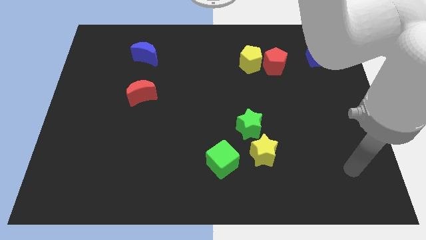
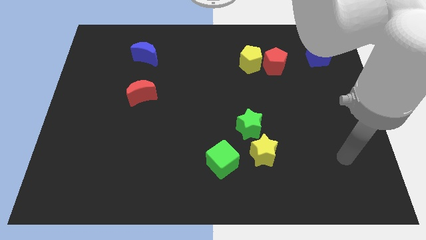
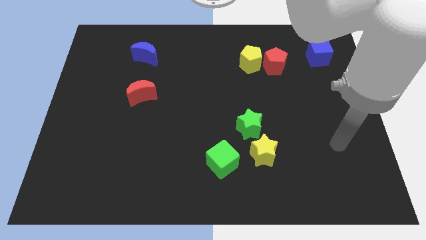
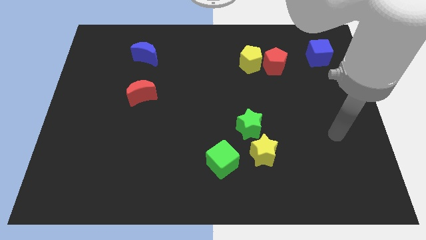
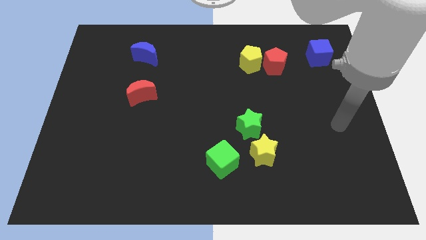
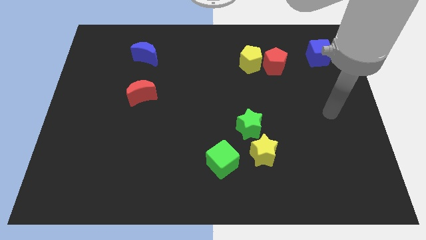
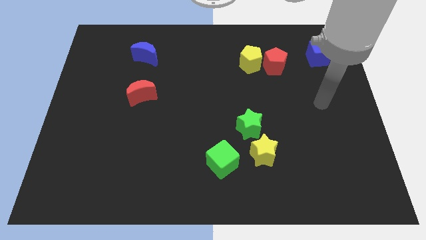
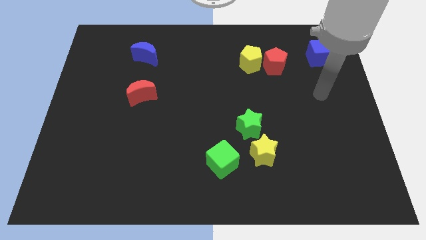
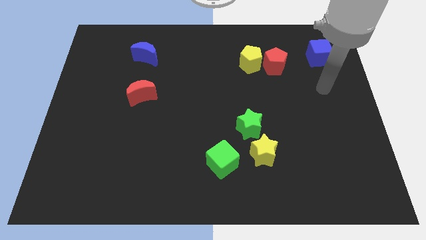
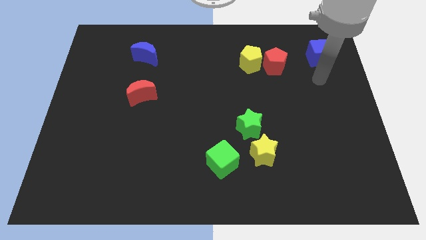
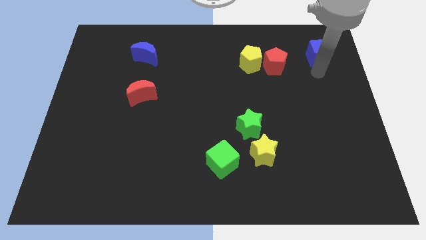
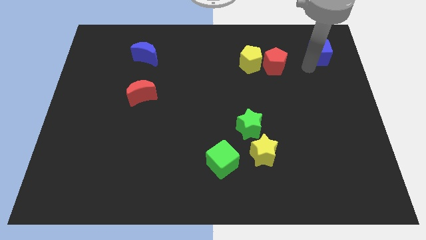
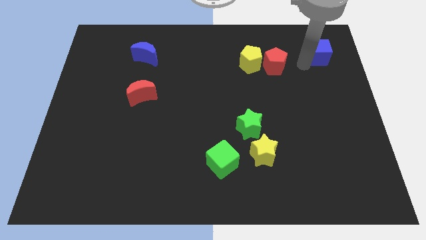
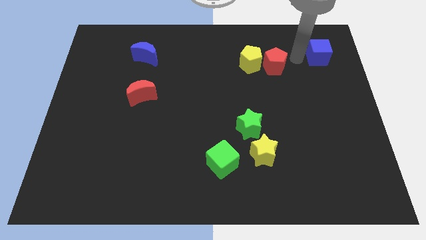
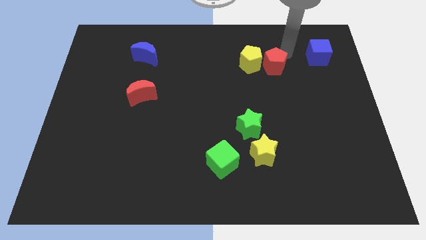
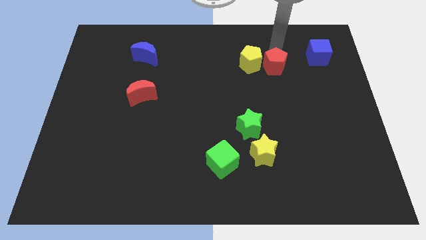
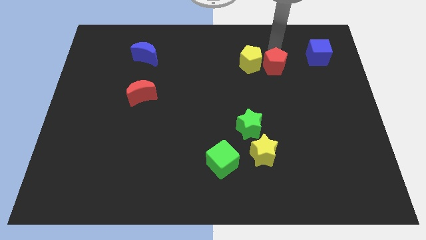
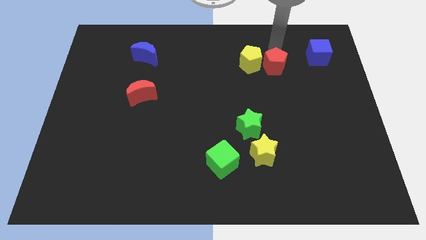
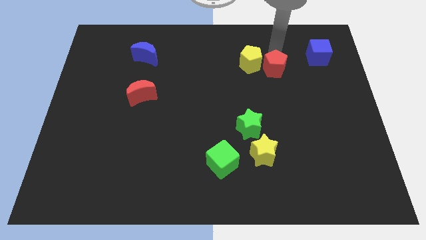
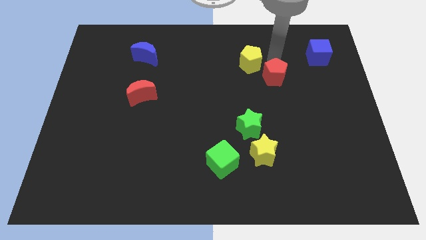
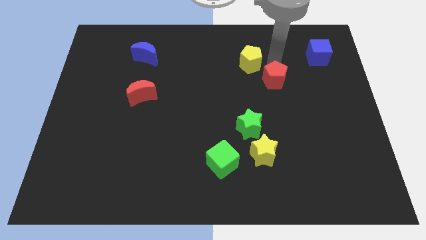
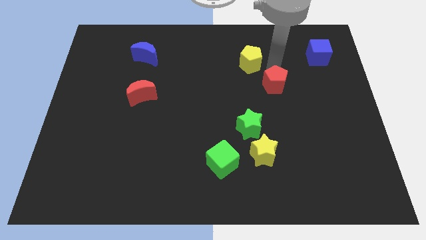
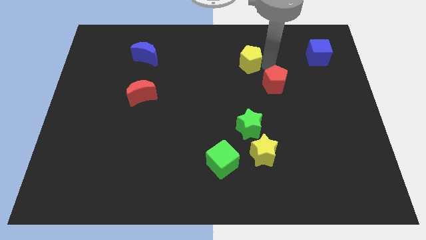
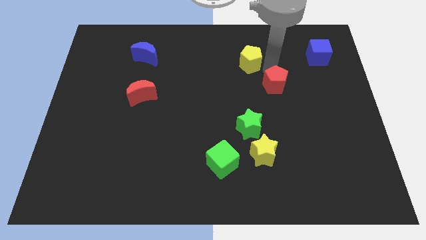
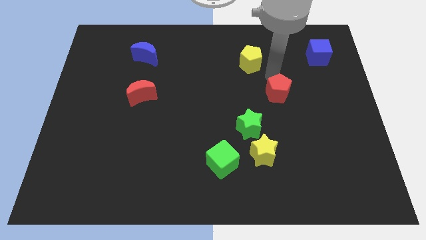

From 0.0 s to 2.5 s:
move the red pentagon downwards a little

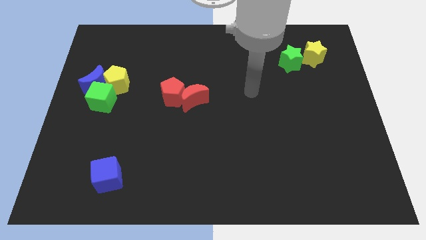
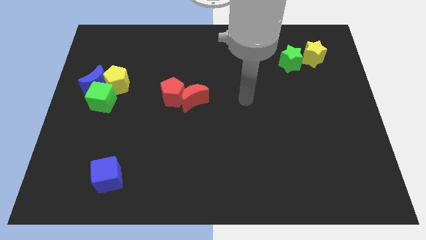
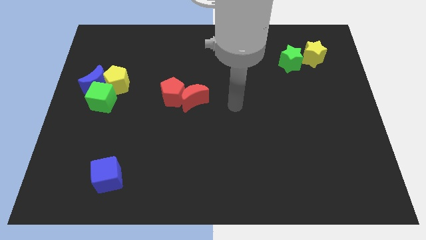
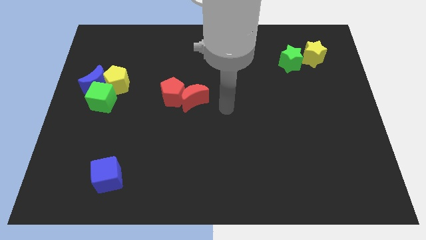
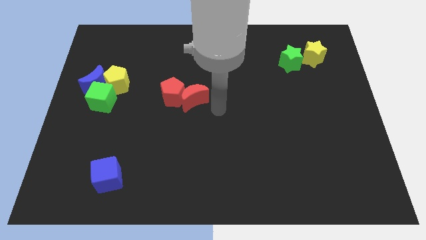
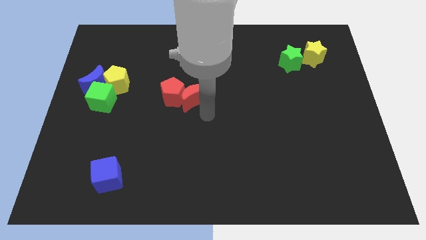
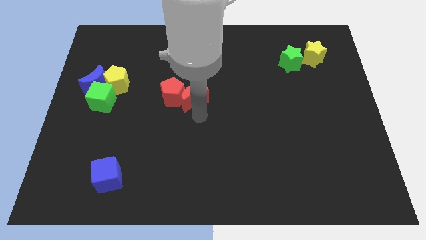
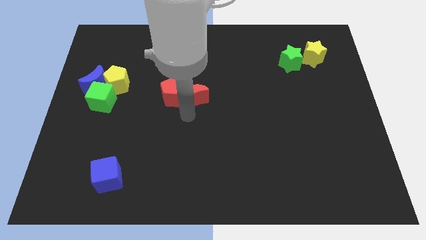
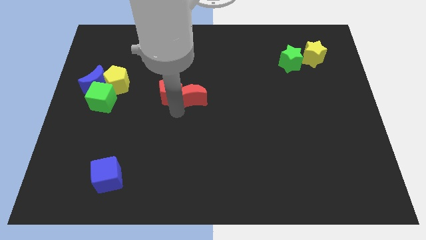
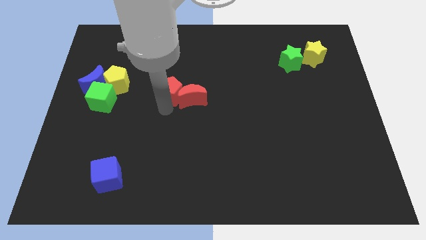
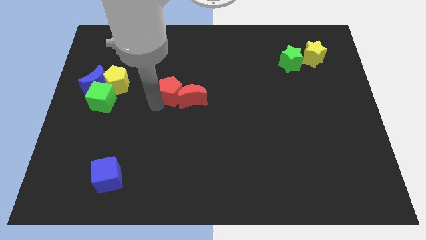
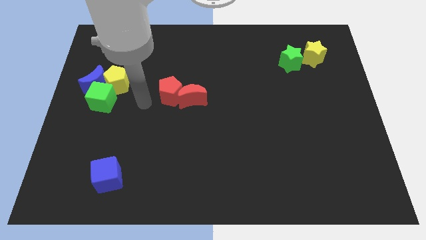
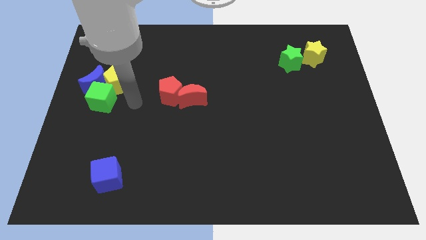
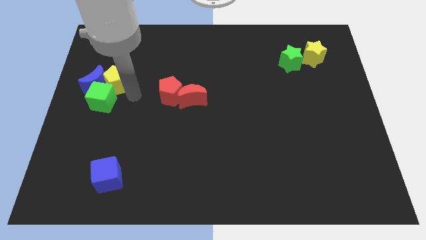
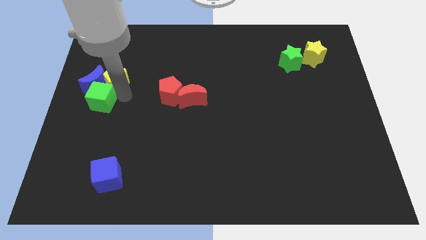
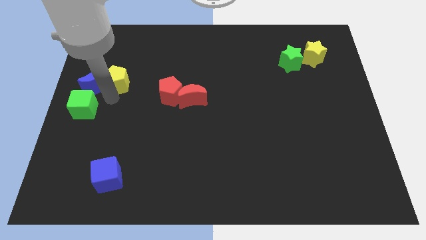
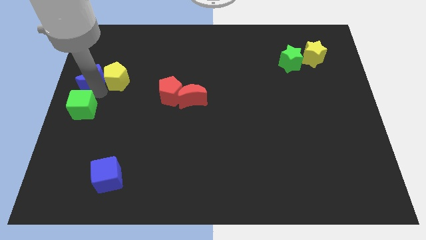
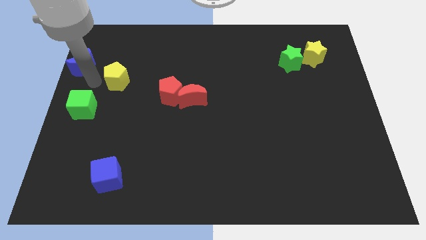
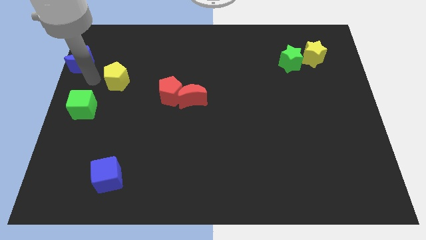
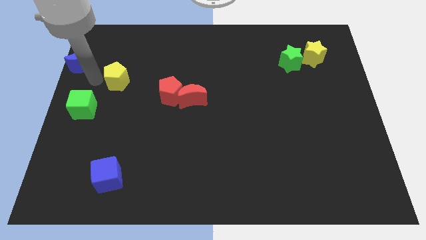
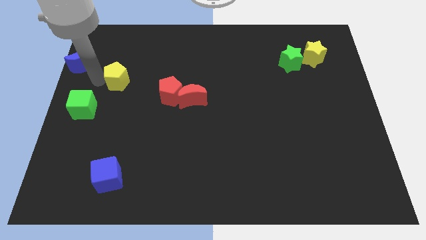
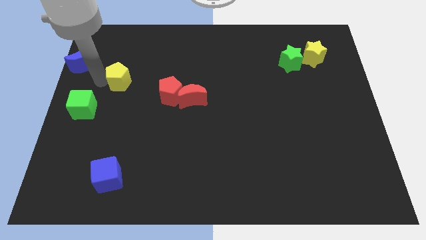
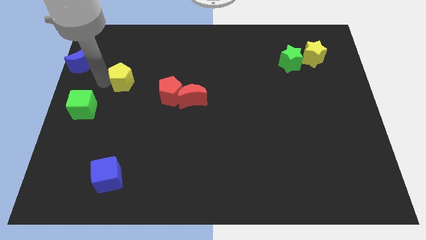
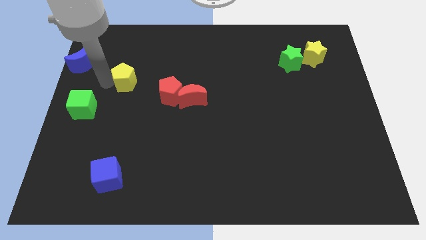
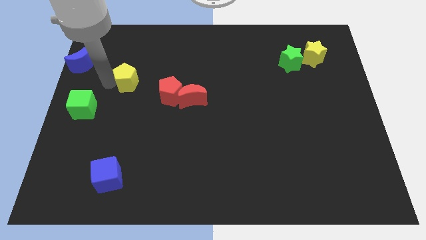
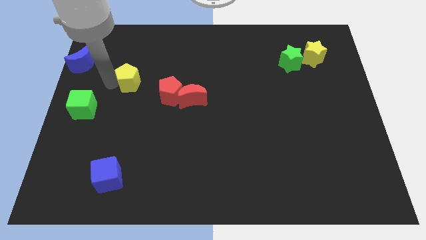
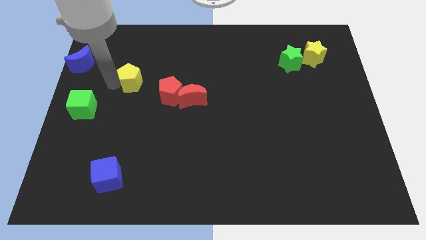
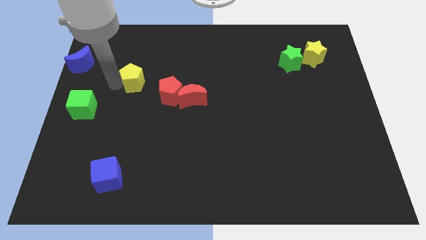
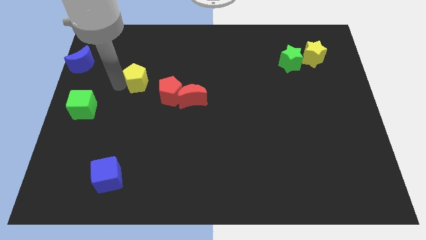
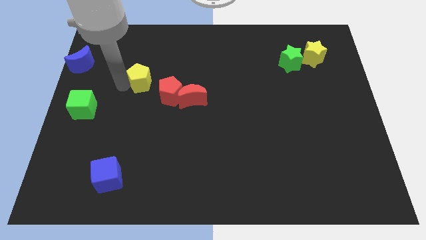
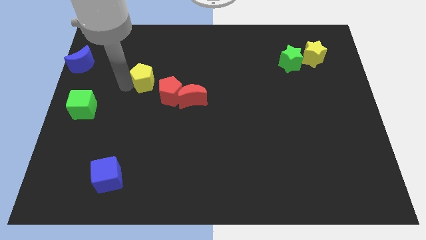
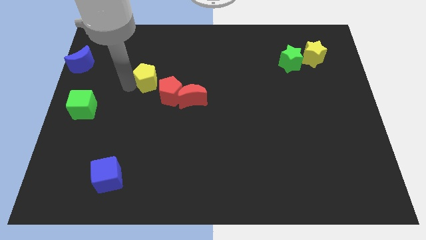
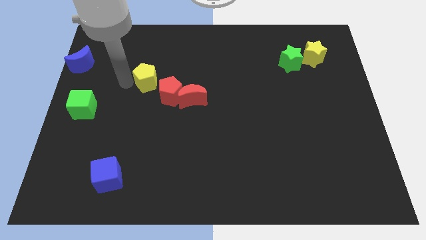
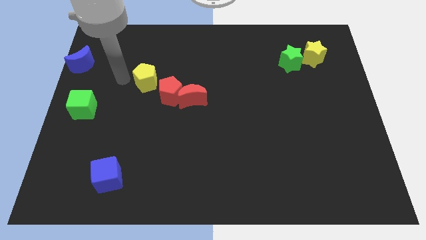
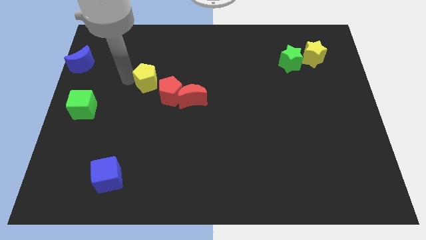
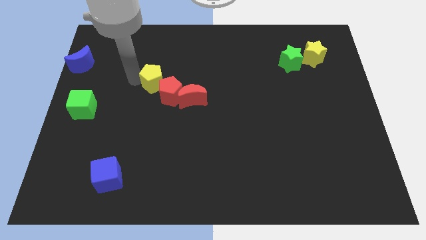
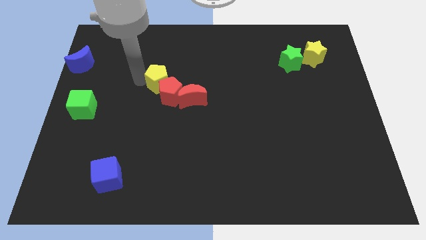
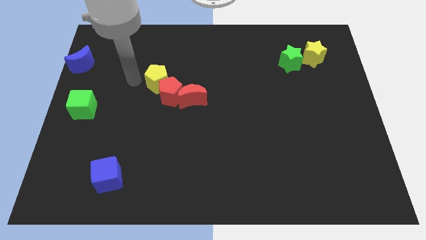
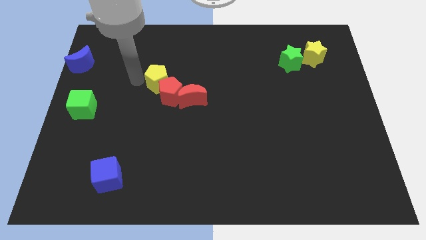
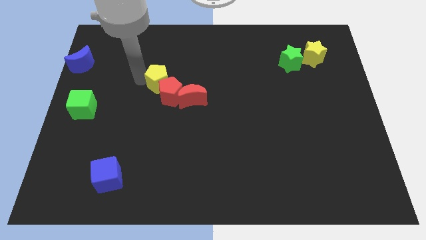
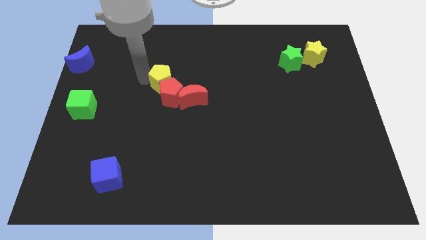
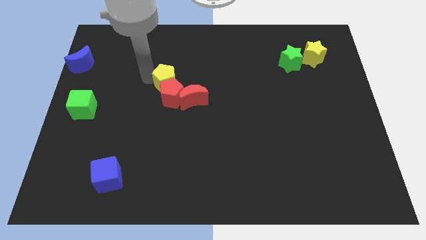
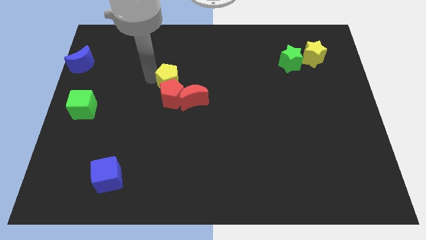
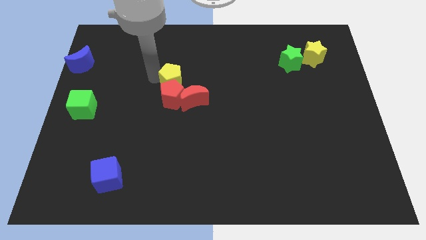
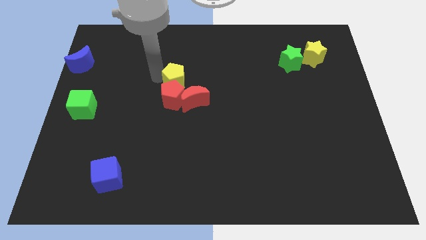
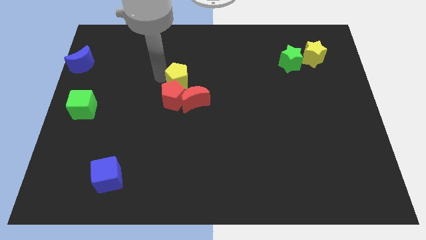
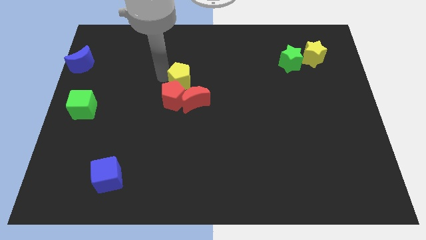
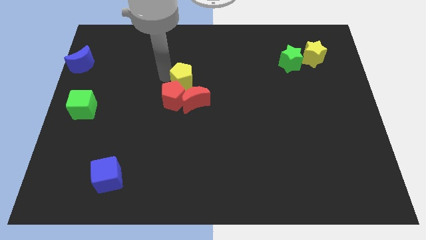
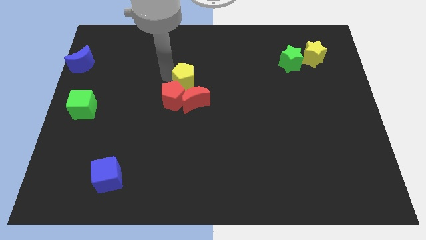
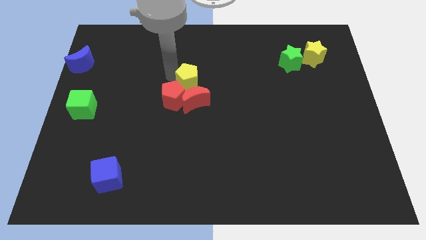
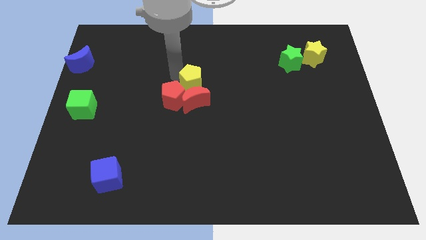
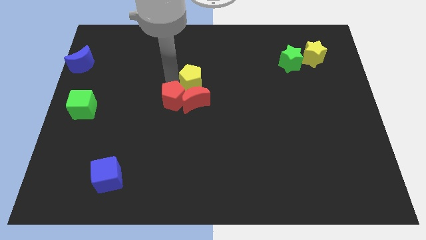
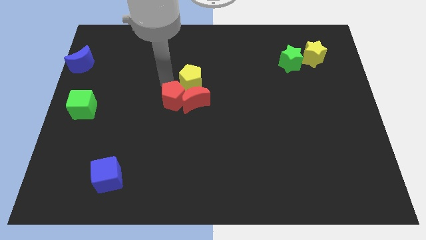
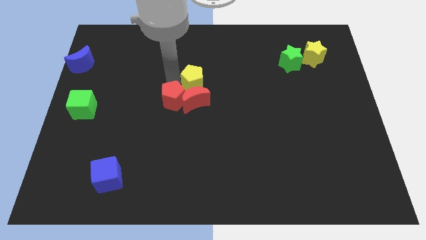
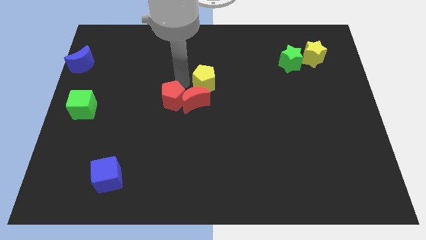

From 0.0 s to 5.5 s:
slide the yellow pentagon right
